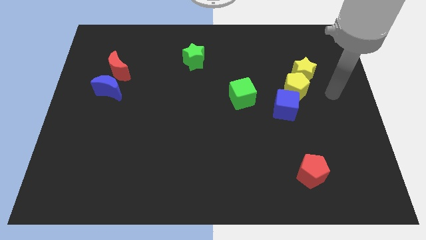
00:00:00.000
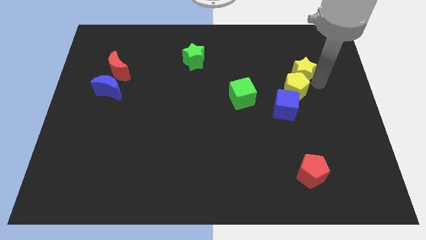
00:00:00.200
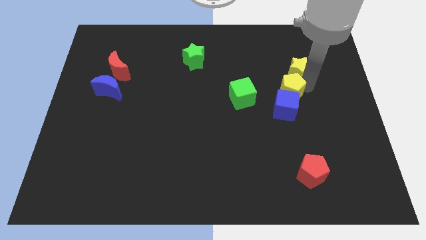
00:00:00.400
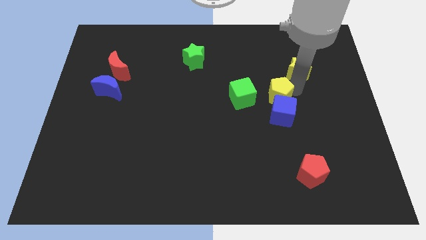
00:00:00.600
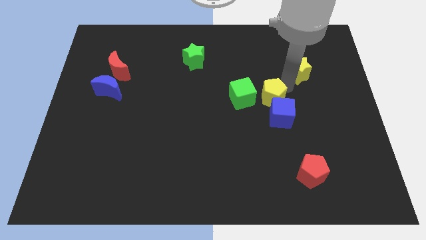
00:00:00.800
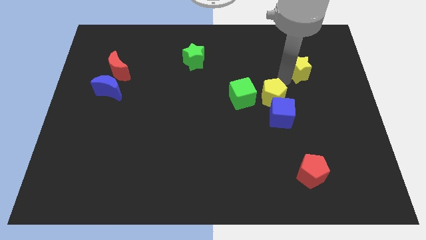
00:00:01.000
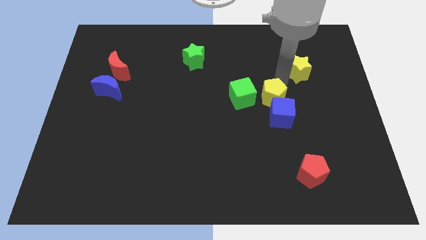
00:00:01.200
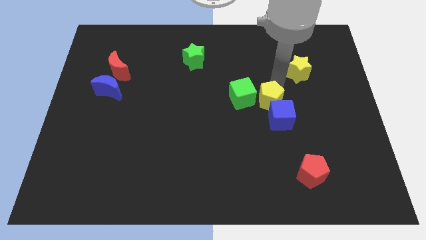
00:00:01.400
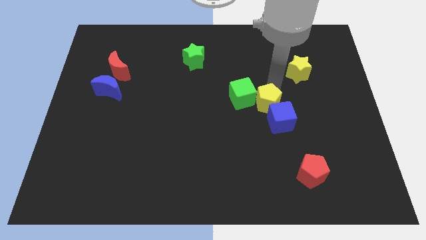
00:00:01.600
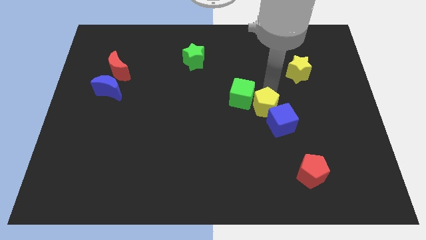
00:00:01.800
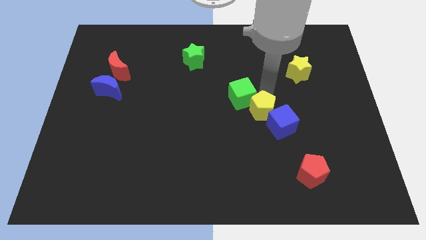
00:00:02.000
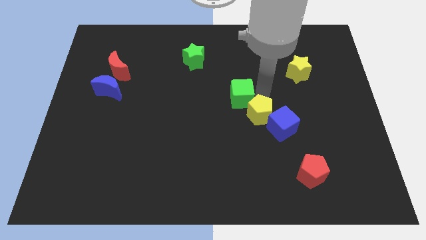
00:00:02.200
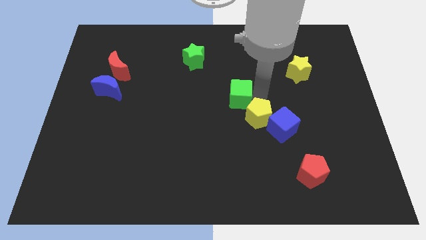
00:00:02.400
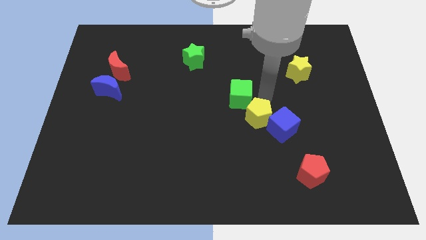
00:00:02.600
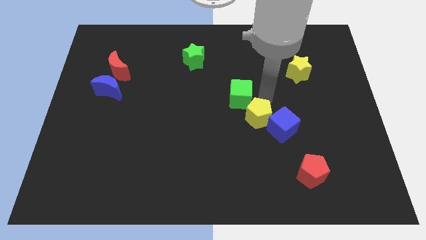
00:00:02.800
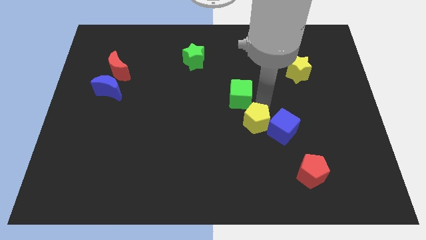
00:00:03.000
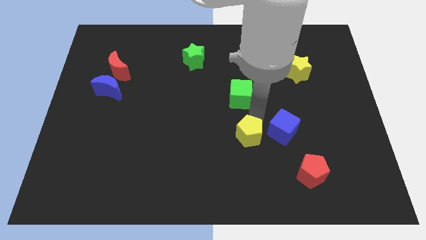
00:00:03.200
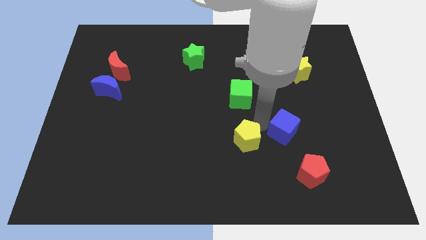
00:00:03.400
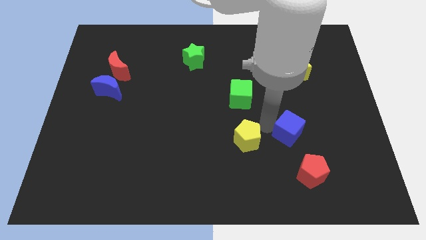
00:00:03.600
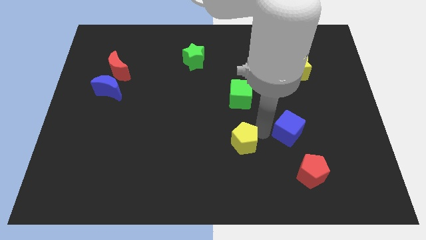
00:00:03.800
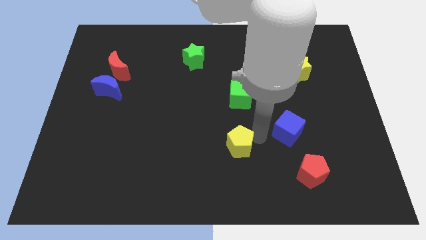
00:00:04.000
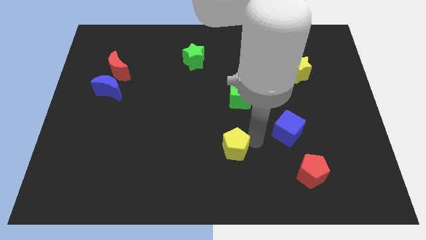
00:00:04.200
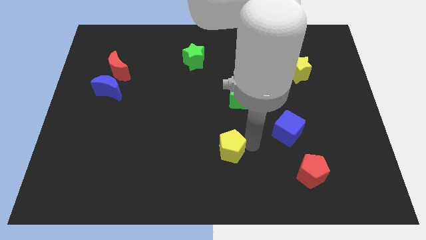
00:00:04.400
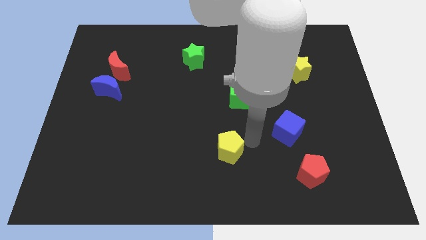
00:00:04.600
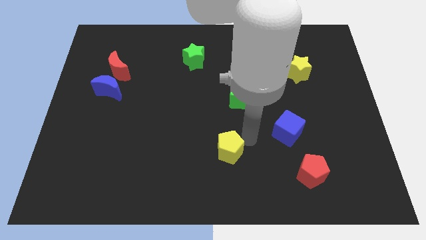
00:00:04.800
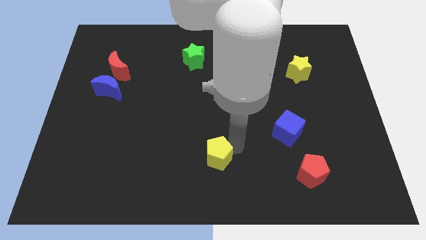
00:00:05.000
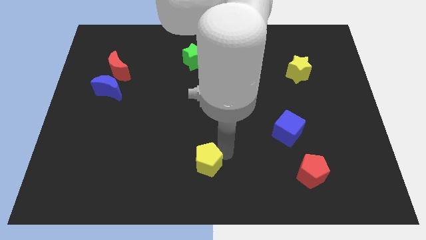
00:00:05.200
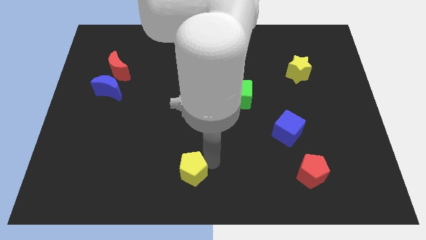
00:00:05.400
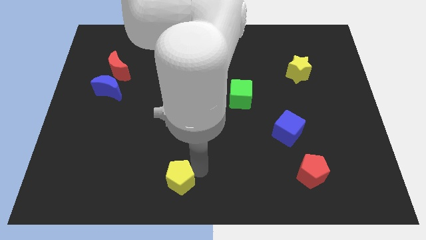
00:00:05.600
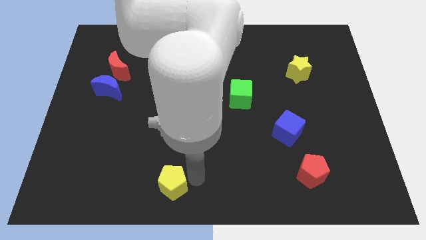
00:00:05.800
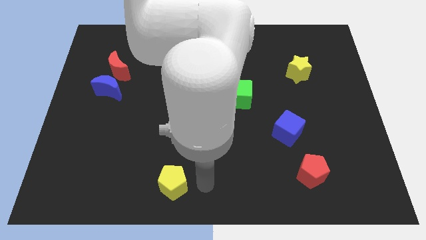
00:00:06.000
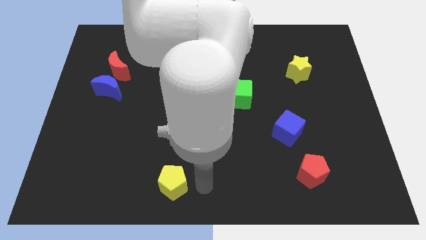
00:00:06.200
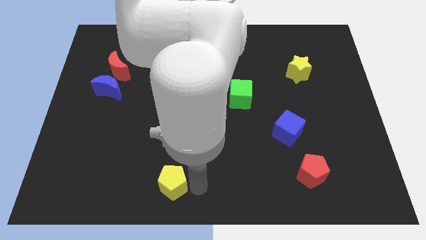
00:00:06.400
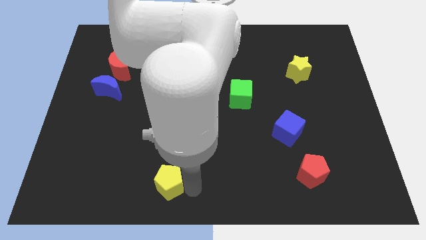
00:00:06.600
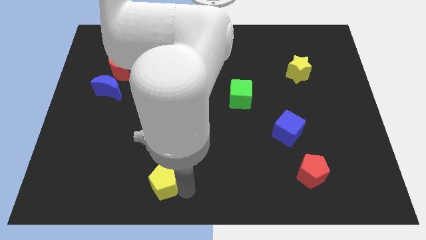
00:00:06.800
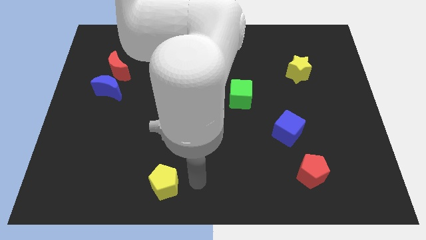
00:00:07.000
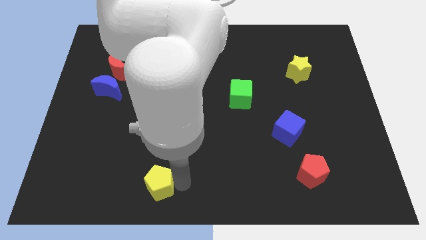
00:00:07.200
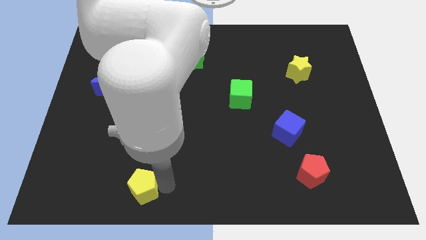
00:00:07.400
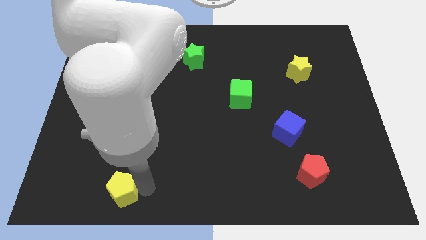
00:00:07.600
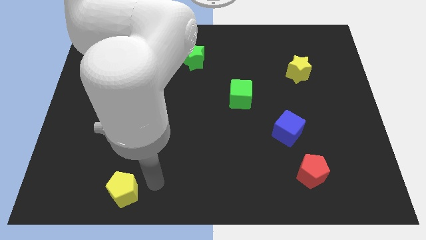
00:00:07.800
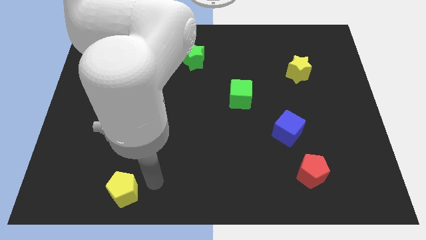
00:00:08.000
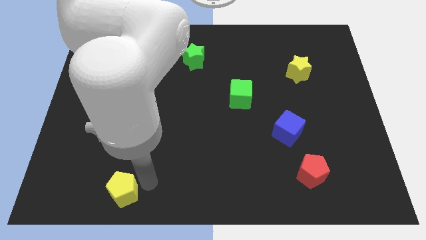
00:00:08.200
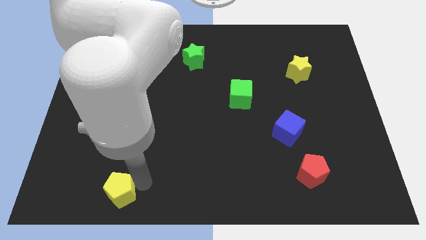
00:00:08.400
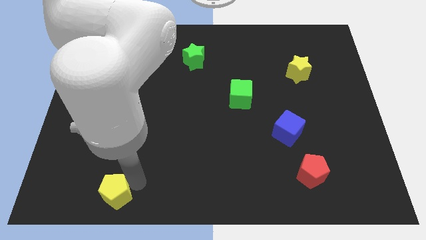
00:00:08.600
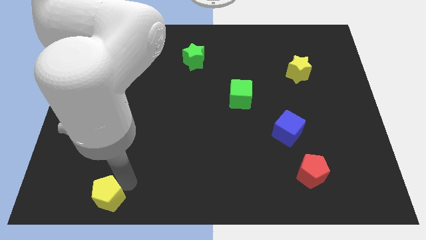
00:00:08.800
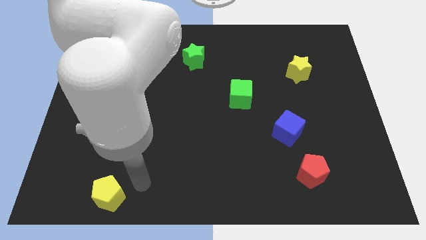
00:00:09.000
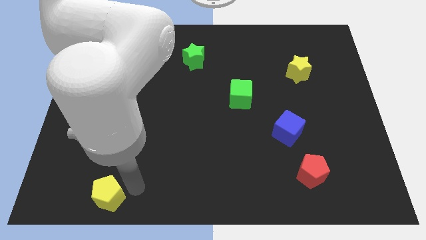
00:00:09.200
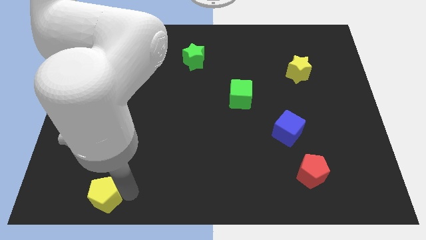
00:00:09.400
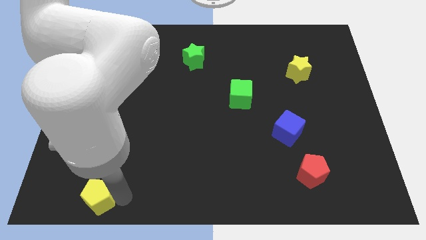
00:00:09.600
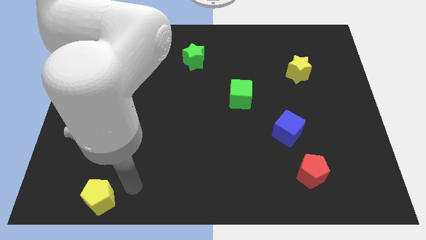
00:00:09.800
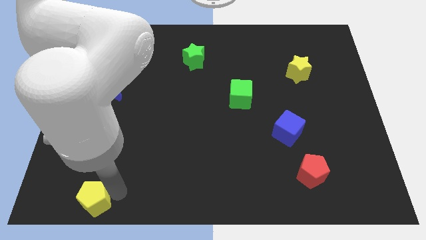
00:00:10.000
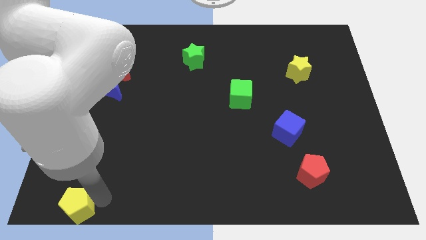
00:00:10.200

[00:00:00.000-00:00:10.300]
push the yellow pentagon to the bottom left
